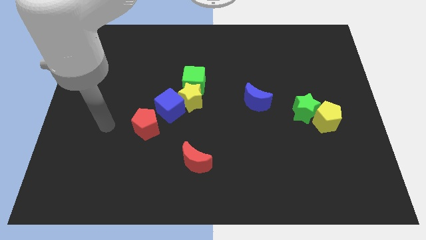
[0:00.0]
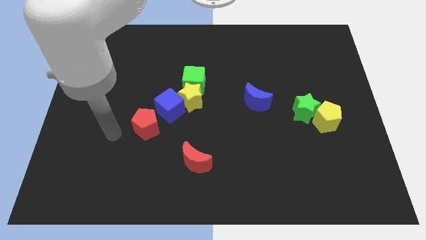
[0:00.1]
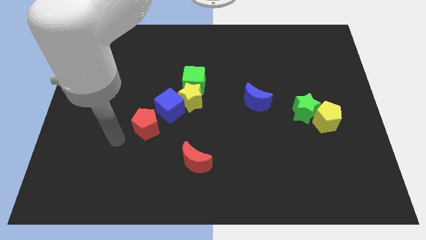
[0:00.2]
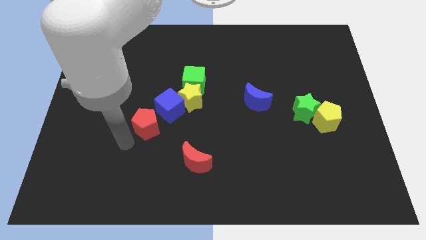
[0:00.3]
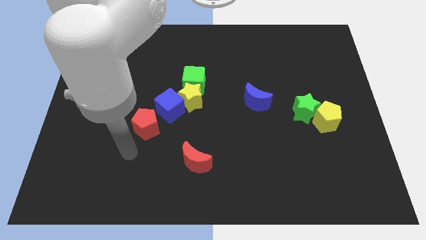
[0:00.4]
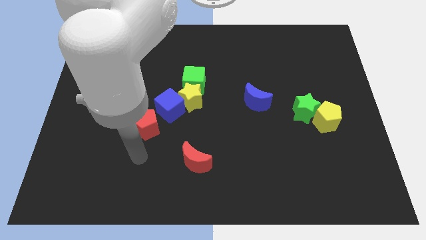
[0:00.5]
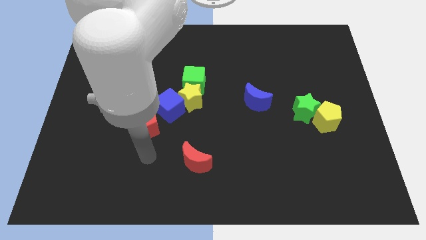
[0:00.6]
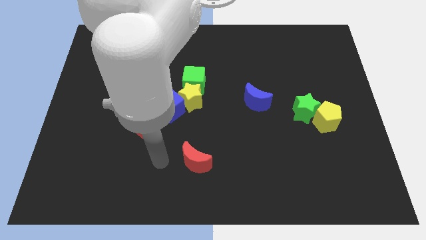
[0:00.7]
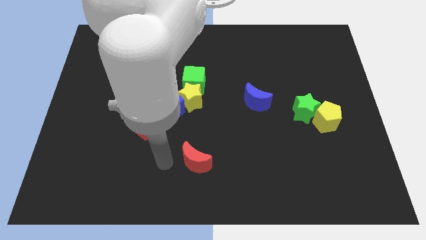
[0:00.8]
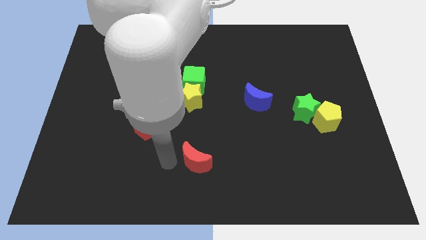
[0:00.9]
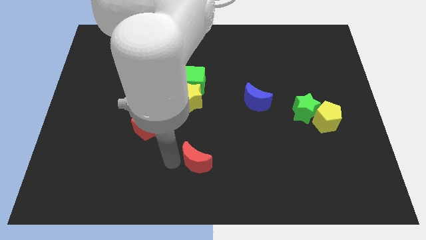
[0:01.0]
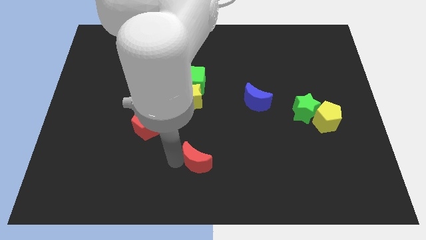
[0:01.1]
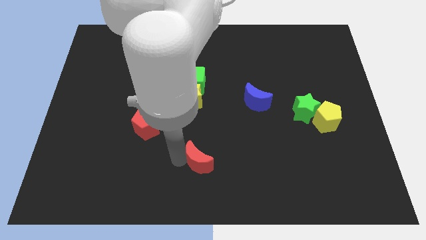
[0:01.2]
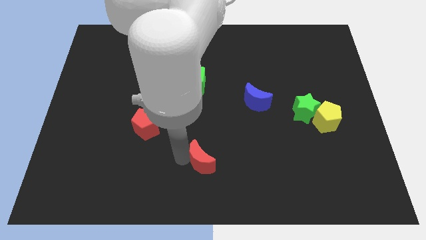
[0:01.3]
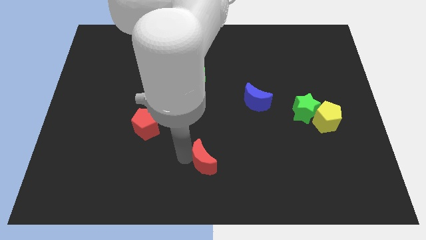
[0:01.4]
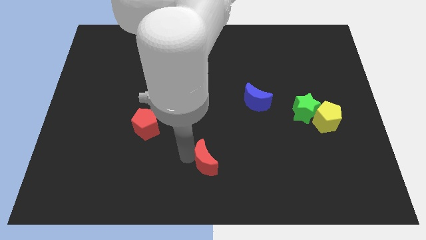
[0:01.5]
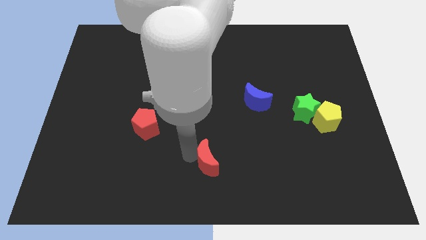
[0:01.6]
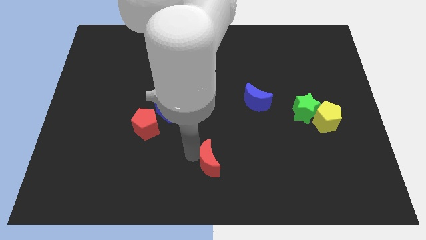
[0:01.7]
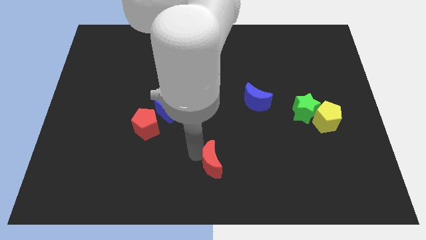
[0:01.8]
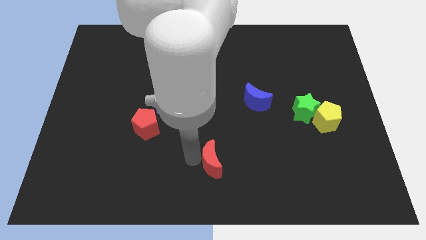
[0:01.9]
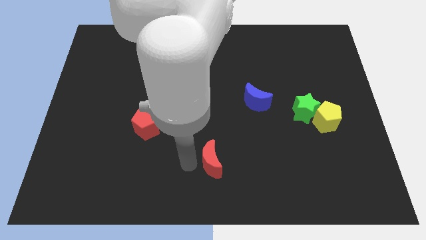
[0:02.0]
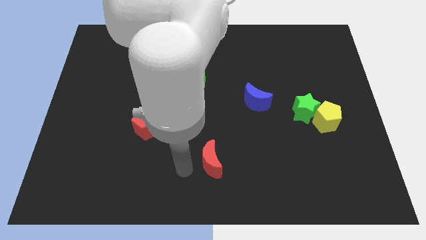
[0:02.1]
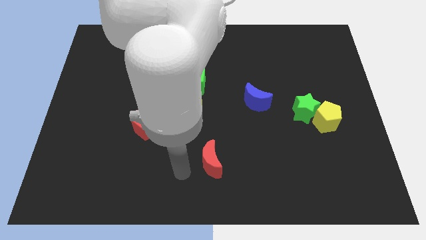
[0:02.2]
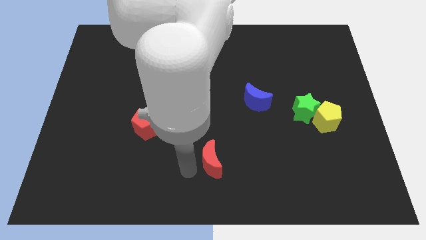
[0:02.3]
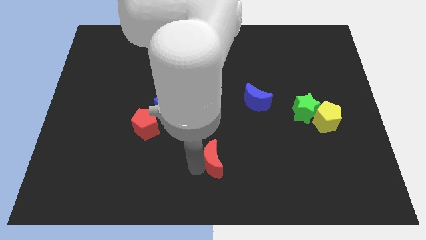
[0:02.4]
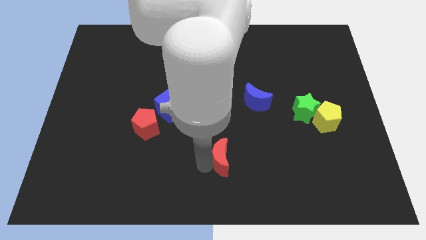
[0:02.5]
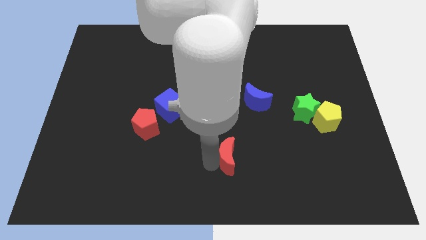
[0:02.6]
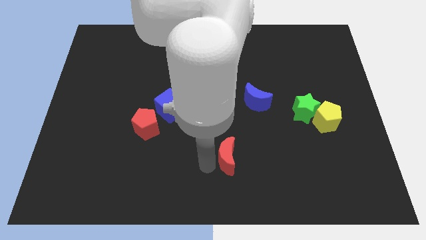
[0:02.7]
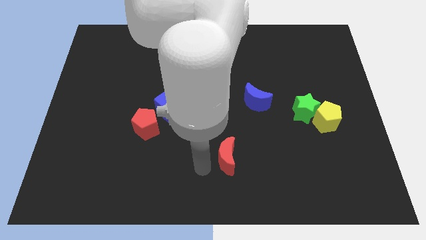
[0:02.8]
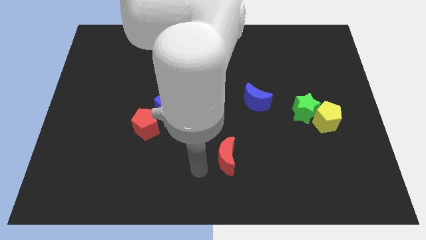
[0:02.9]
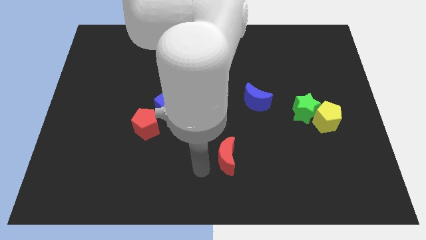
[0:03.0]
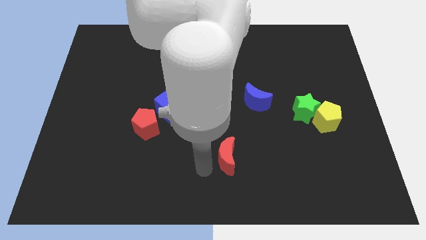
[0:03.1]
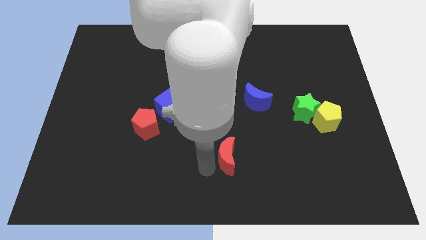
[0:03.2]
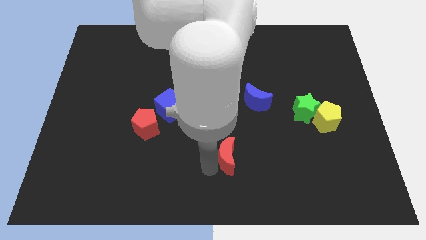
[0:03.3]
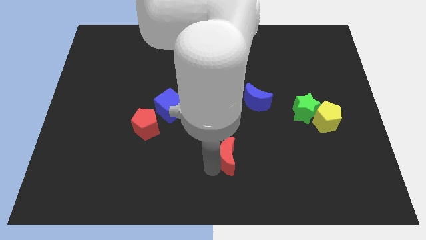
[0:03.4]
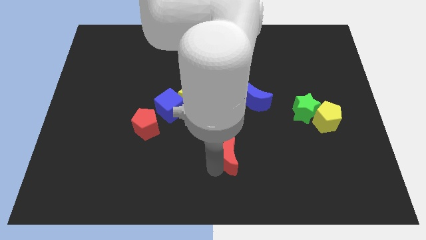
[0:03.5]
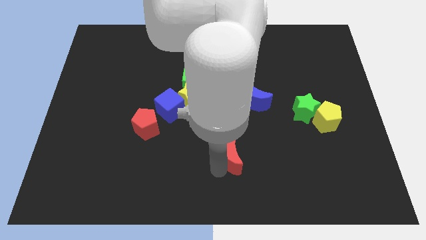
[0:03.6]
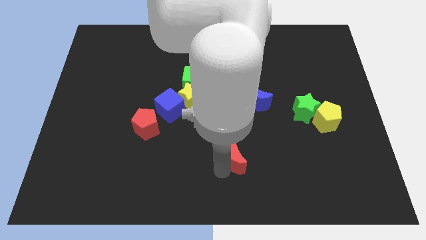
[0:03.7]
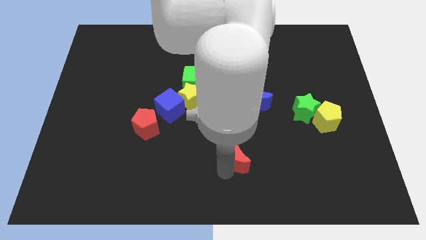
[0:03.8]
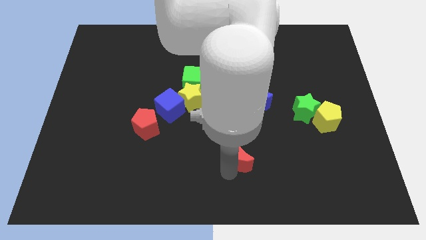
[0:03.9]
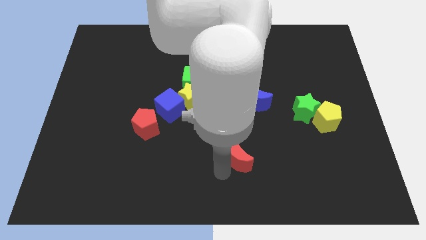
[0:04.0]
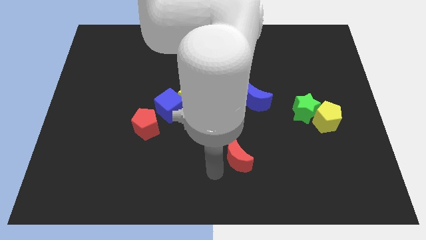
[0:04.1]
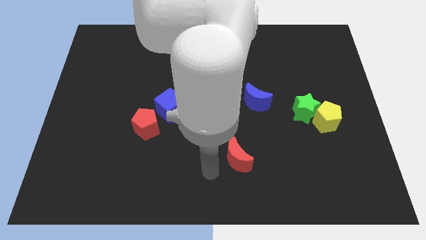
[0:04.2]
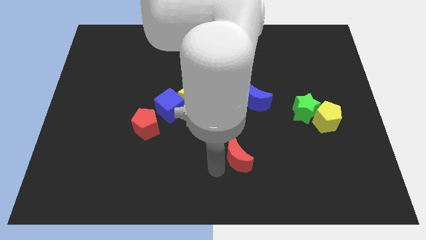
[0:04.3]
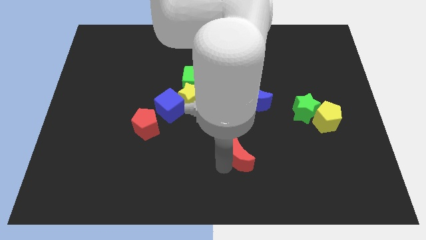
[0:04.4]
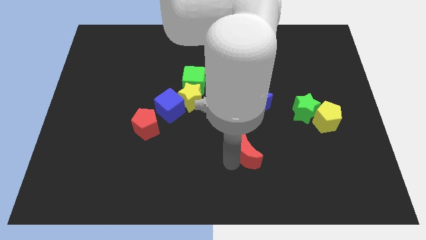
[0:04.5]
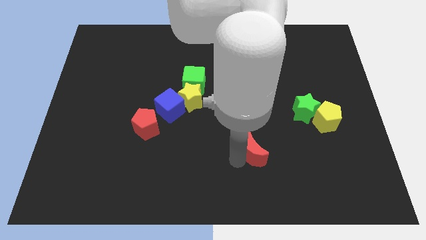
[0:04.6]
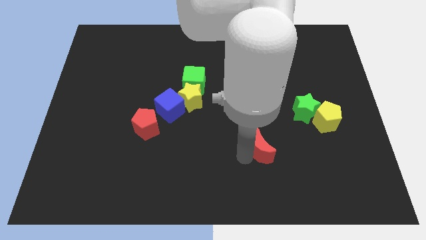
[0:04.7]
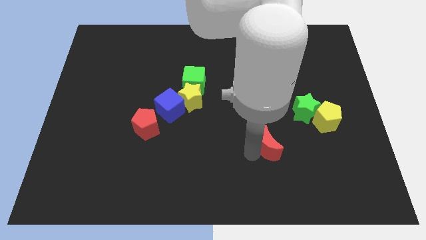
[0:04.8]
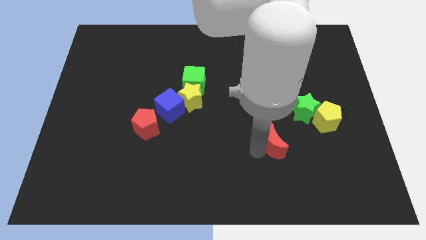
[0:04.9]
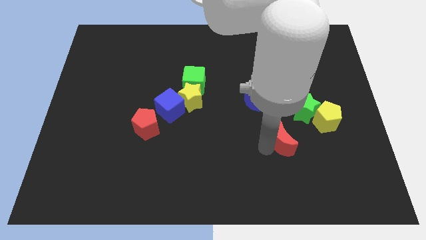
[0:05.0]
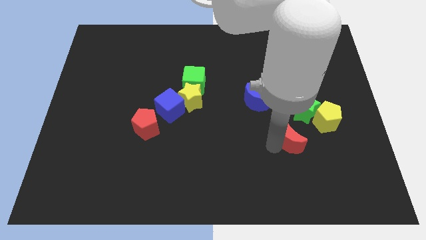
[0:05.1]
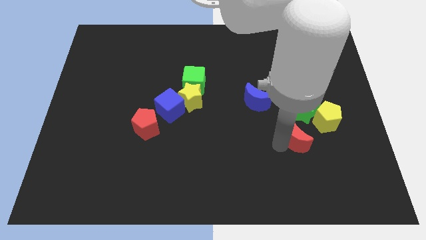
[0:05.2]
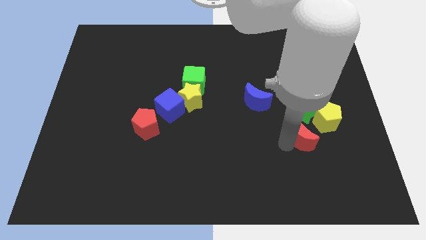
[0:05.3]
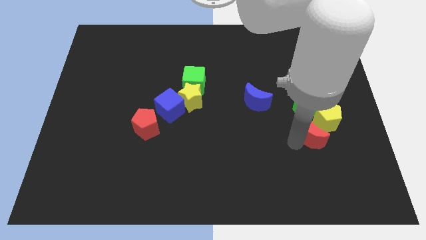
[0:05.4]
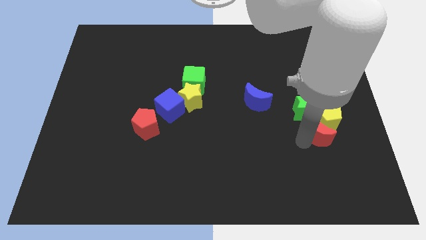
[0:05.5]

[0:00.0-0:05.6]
slide the red moon close to the yellow pentagon

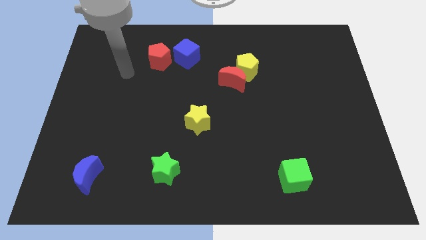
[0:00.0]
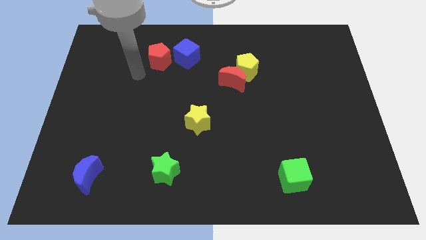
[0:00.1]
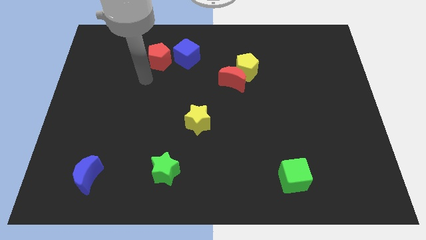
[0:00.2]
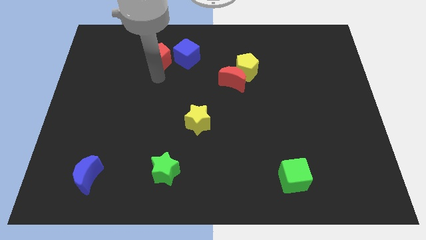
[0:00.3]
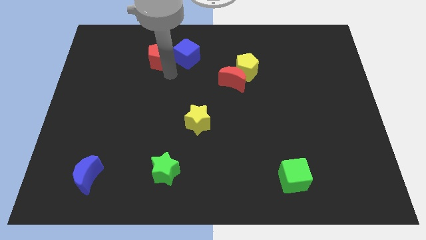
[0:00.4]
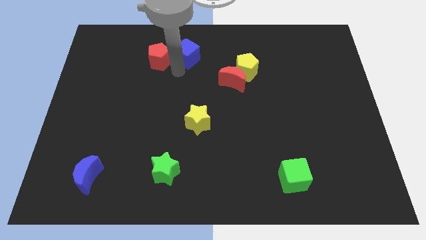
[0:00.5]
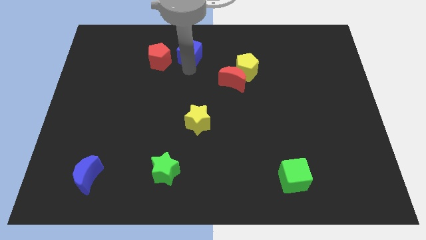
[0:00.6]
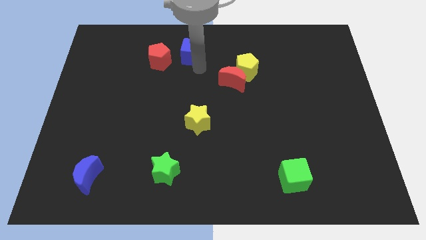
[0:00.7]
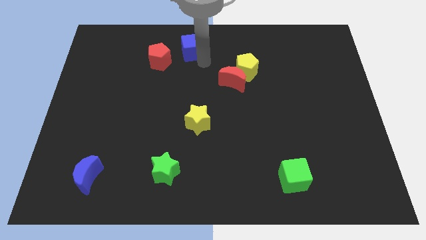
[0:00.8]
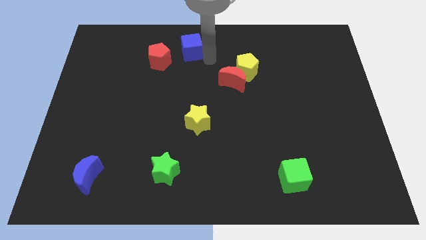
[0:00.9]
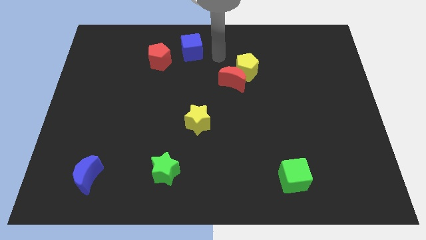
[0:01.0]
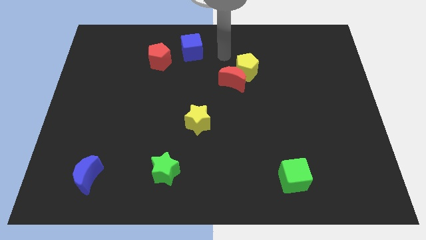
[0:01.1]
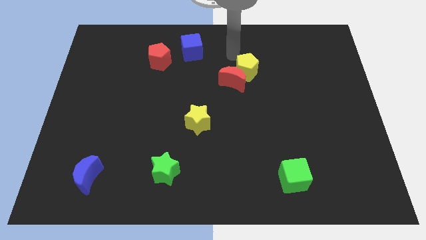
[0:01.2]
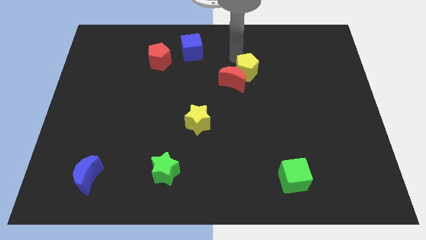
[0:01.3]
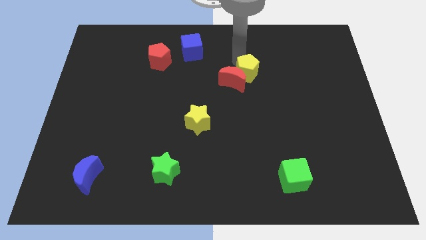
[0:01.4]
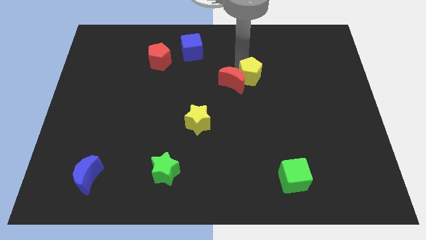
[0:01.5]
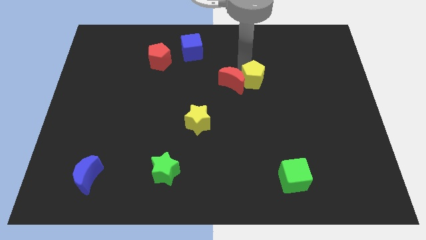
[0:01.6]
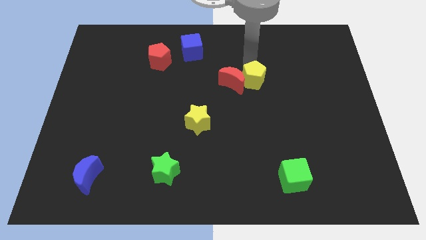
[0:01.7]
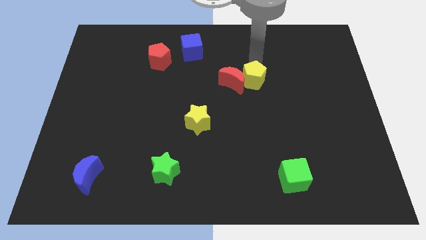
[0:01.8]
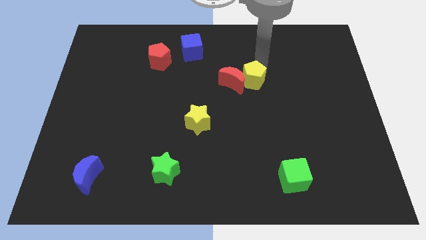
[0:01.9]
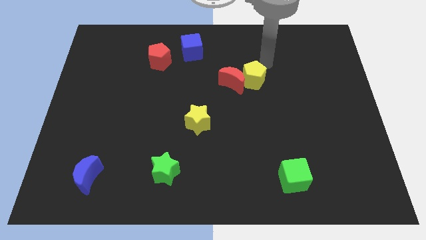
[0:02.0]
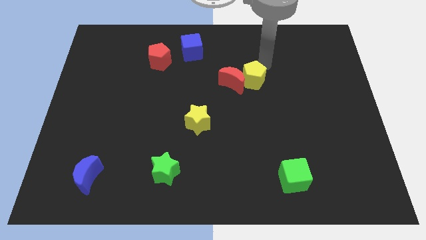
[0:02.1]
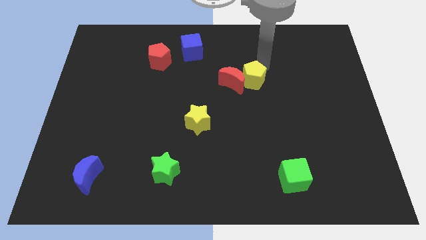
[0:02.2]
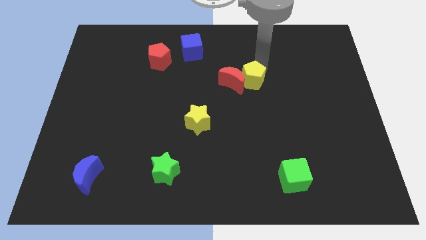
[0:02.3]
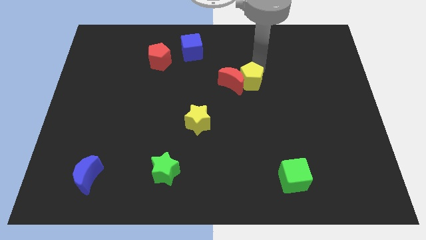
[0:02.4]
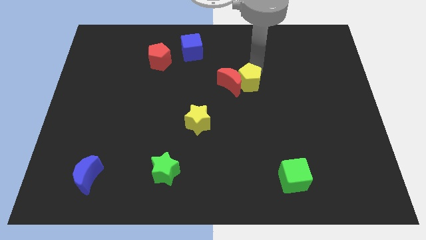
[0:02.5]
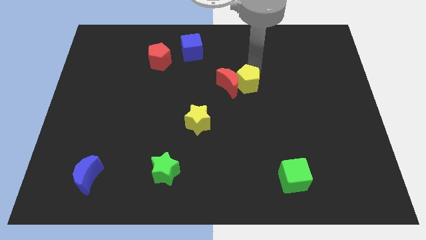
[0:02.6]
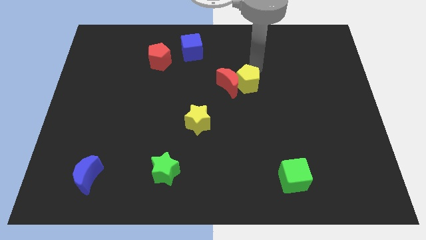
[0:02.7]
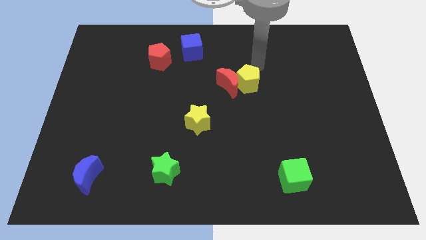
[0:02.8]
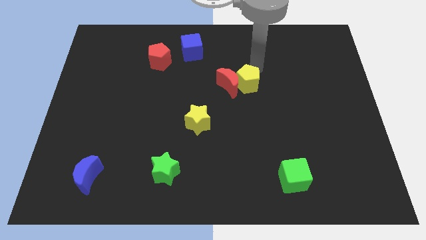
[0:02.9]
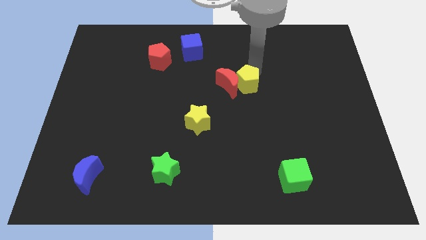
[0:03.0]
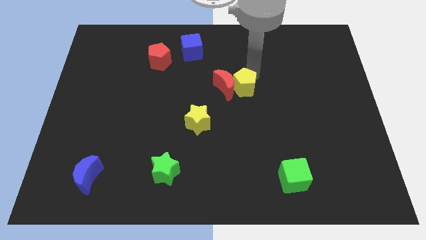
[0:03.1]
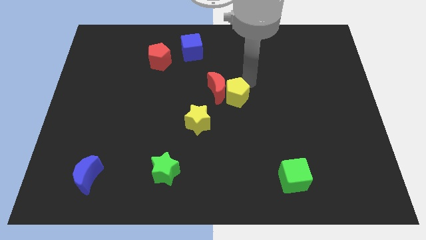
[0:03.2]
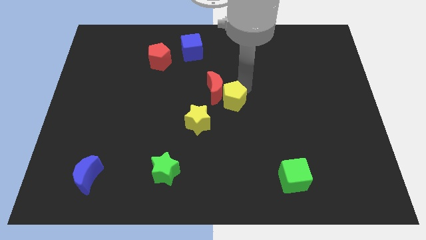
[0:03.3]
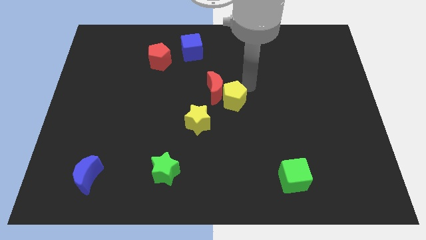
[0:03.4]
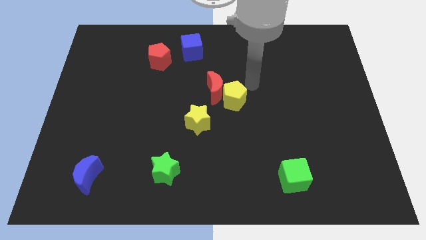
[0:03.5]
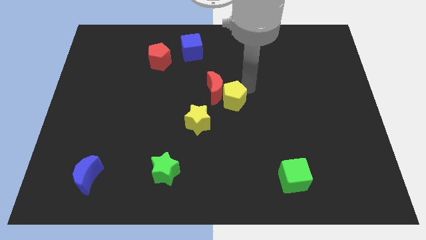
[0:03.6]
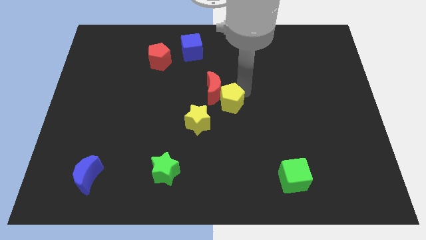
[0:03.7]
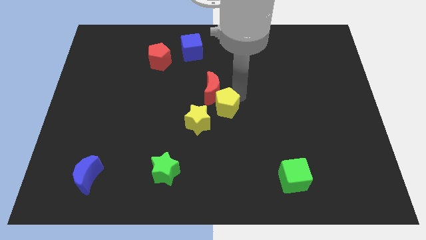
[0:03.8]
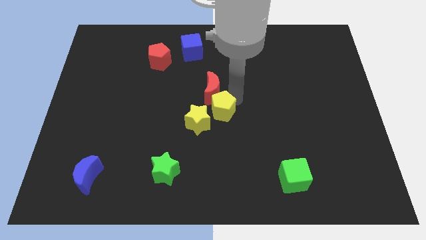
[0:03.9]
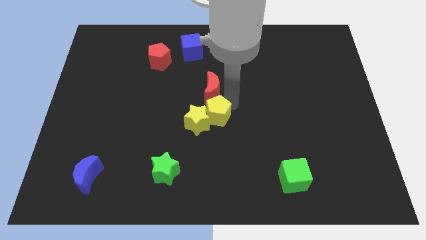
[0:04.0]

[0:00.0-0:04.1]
put the yellow pentagon towards the yellow star
